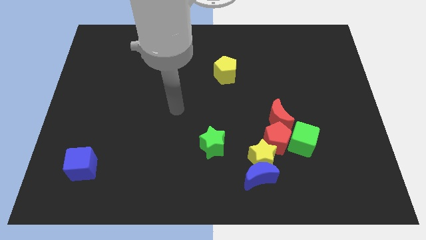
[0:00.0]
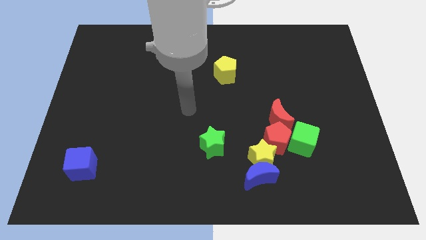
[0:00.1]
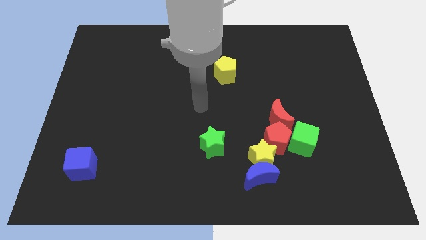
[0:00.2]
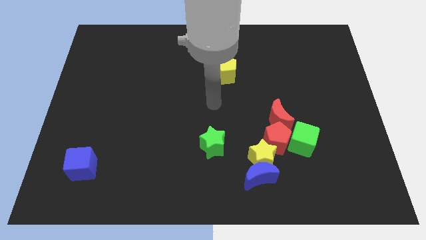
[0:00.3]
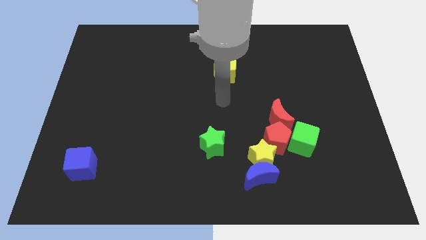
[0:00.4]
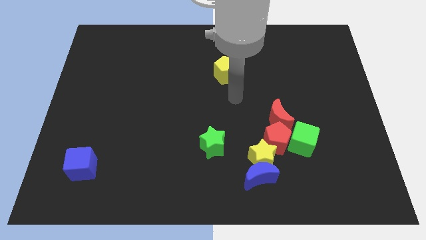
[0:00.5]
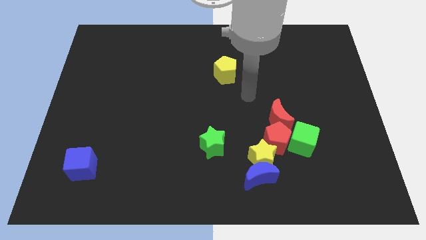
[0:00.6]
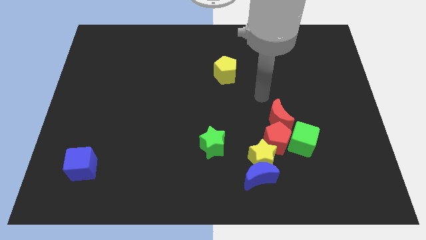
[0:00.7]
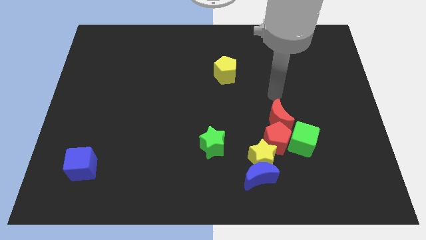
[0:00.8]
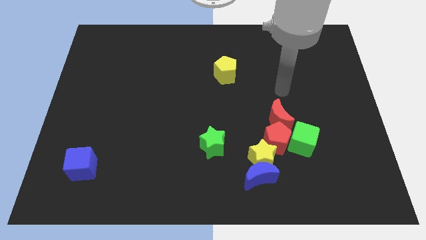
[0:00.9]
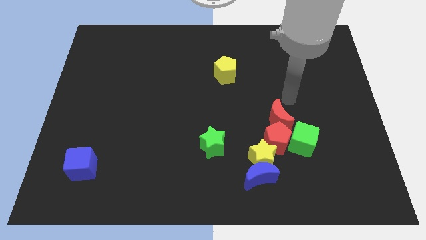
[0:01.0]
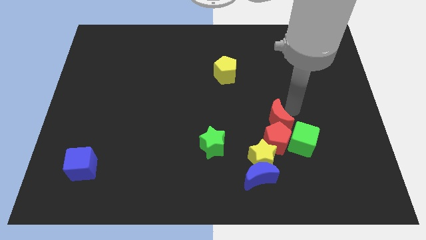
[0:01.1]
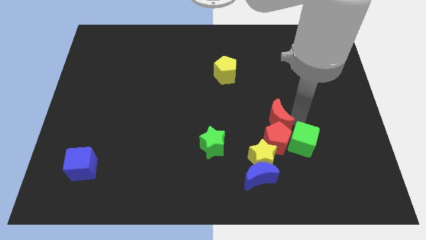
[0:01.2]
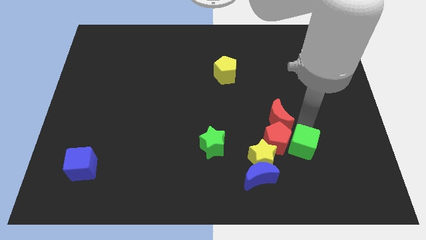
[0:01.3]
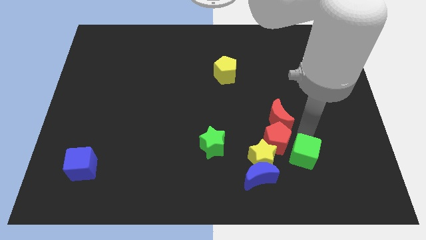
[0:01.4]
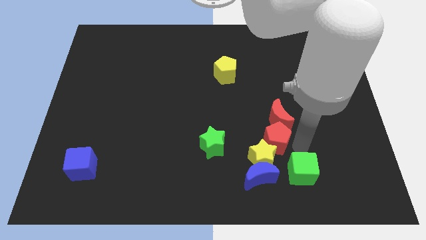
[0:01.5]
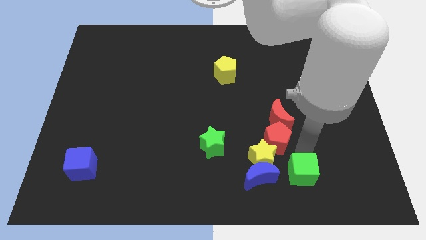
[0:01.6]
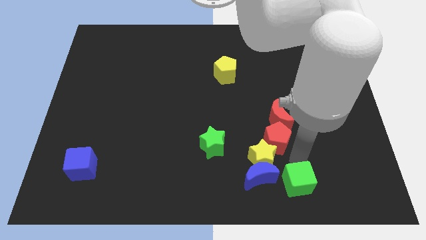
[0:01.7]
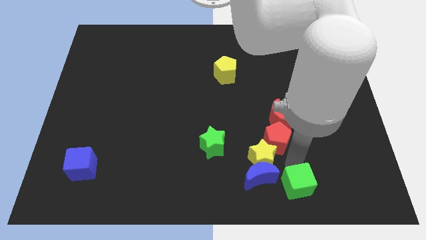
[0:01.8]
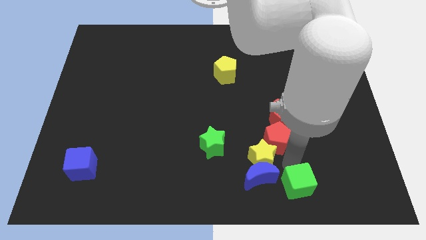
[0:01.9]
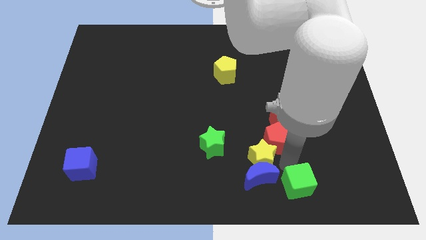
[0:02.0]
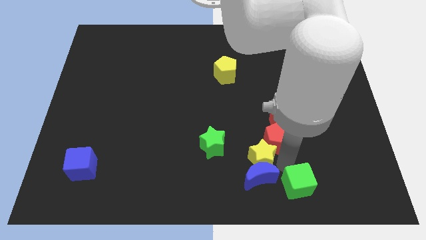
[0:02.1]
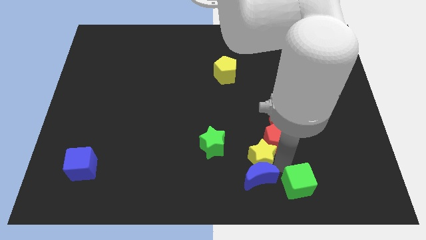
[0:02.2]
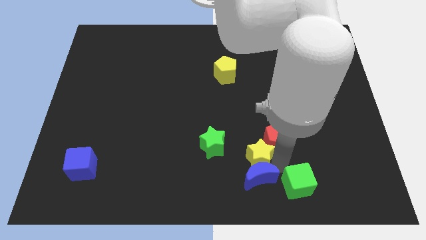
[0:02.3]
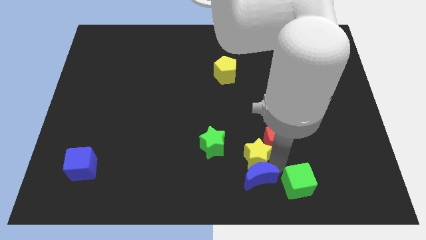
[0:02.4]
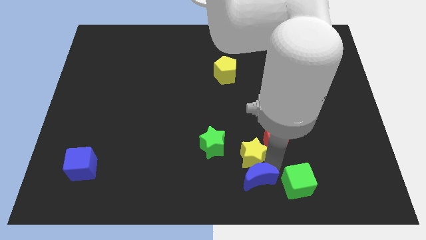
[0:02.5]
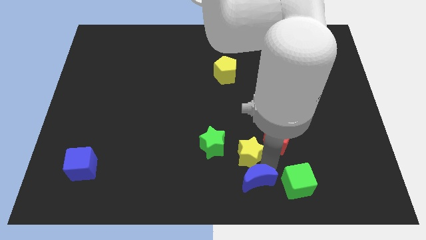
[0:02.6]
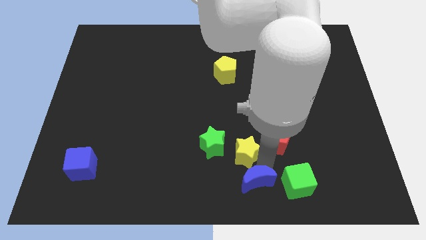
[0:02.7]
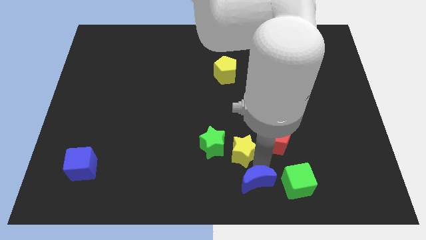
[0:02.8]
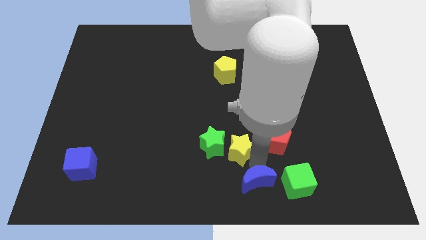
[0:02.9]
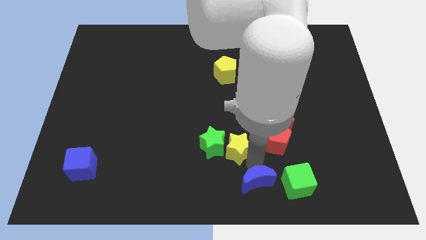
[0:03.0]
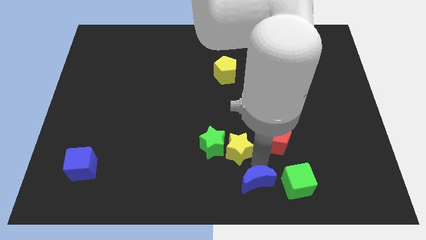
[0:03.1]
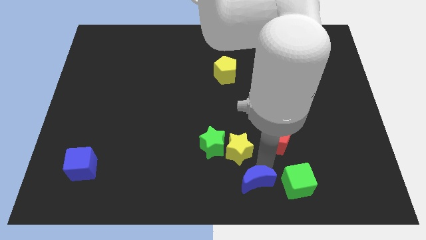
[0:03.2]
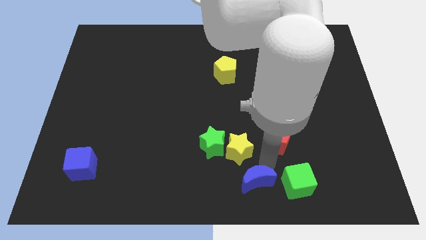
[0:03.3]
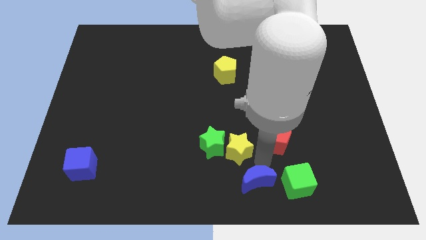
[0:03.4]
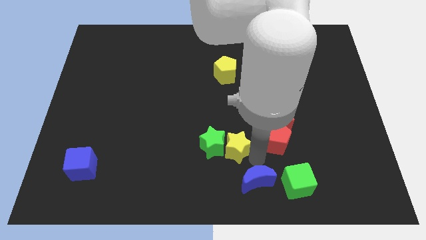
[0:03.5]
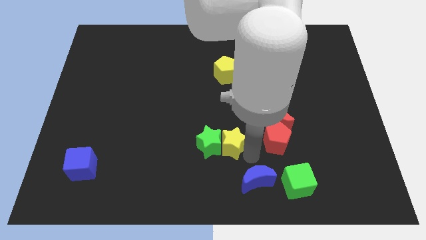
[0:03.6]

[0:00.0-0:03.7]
move the yellow star away from the group of blocks

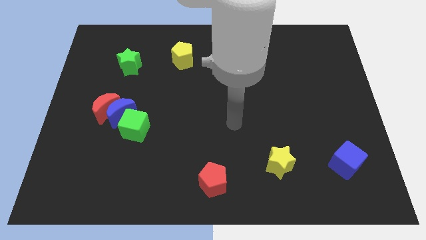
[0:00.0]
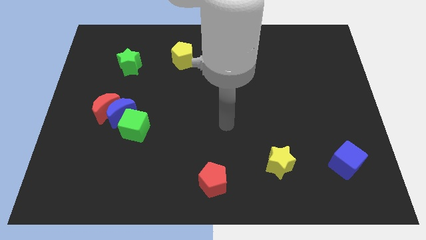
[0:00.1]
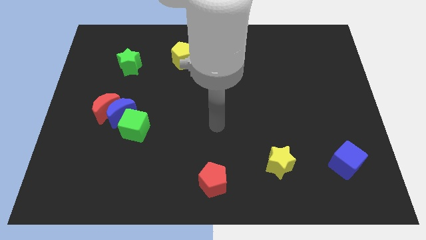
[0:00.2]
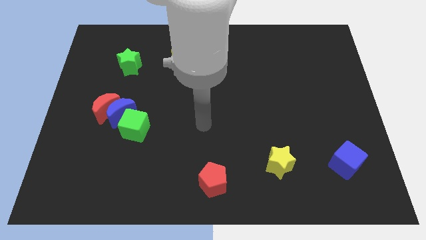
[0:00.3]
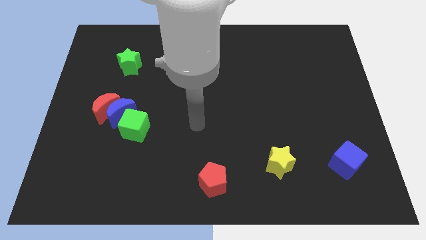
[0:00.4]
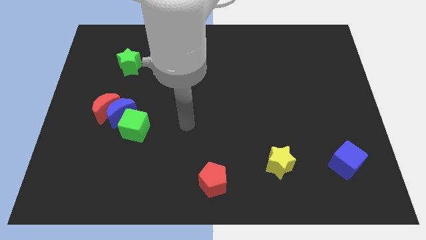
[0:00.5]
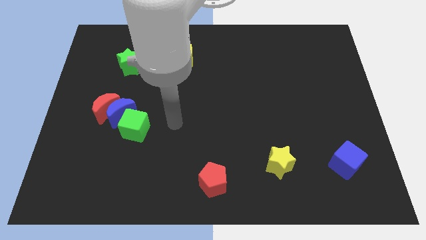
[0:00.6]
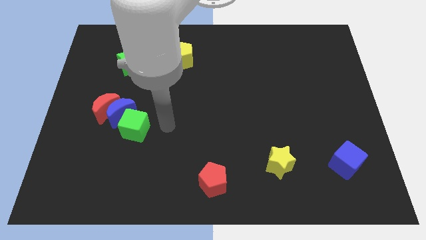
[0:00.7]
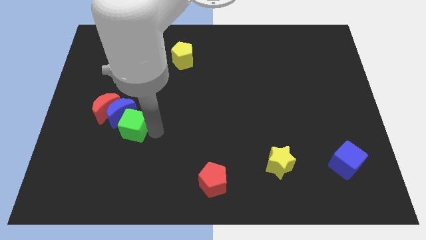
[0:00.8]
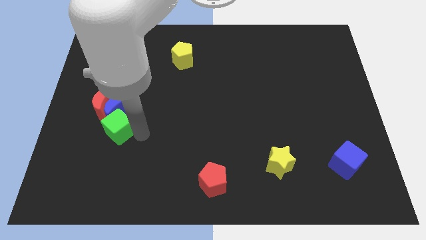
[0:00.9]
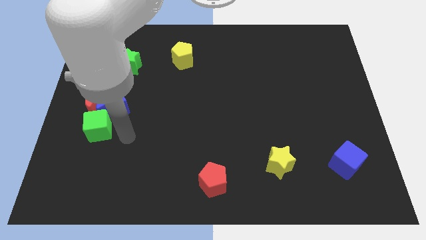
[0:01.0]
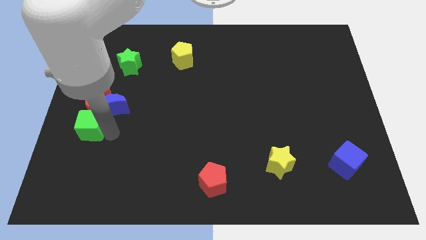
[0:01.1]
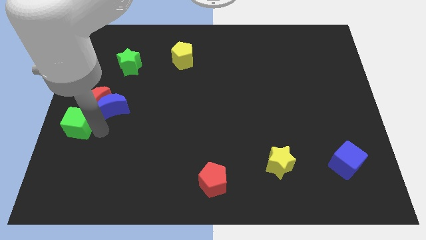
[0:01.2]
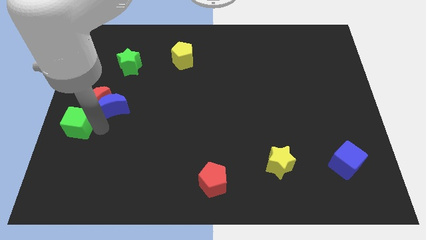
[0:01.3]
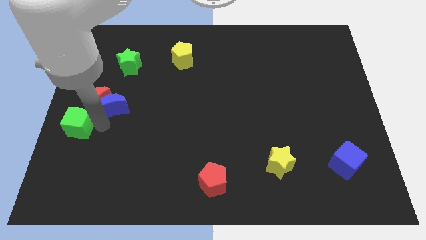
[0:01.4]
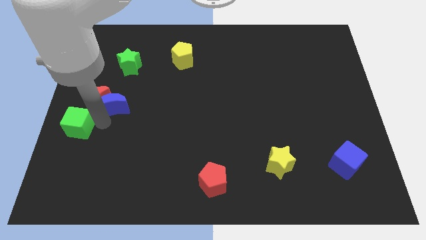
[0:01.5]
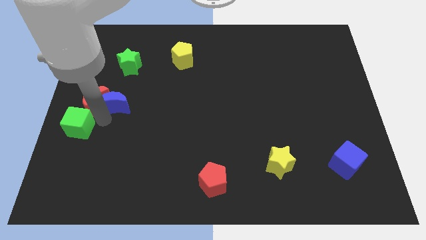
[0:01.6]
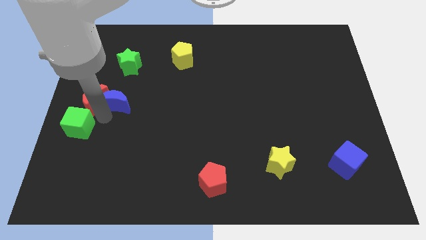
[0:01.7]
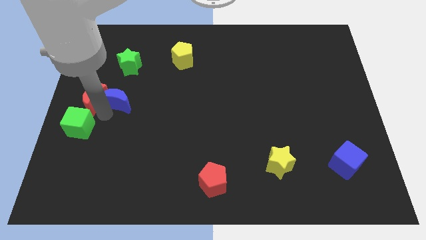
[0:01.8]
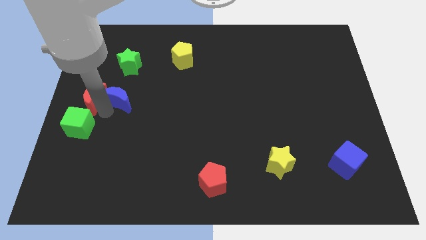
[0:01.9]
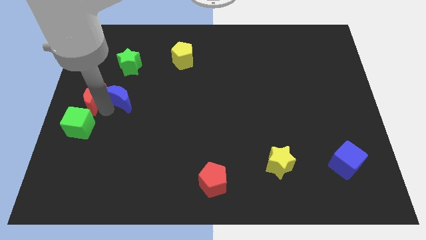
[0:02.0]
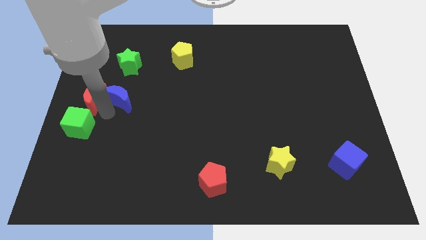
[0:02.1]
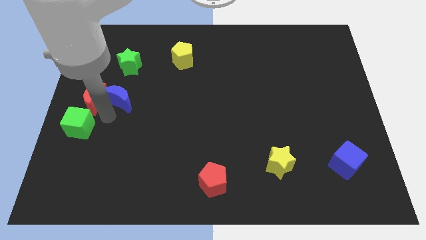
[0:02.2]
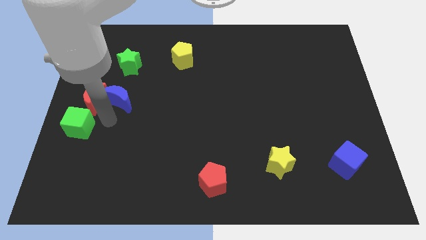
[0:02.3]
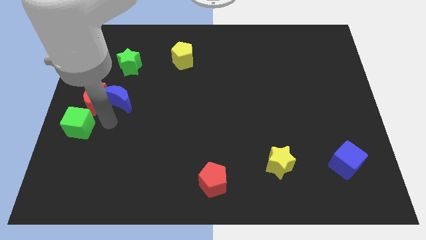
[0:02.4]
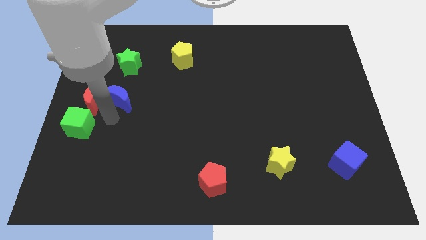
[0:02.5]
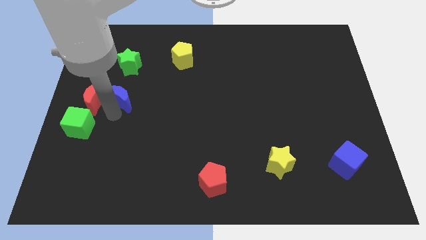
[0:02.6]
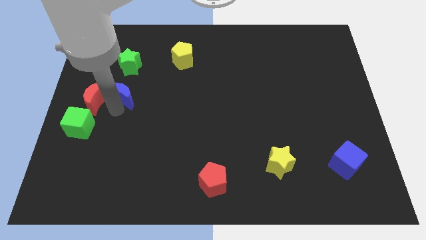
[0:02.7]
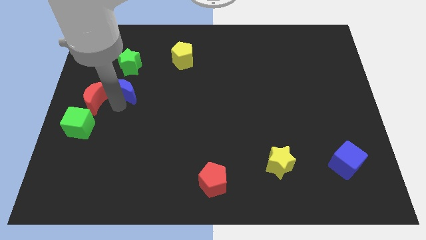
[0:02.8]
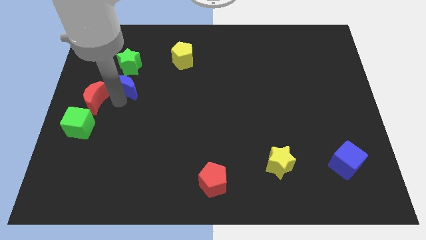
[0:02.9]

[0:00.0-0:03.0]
move the blue moon away from the red moon and green cube

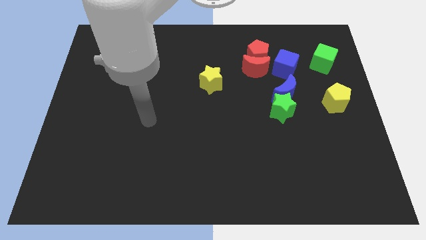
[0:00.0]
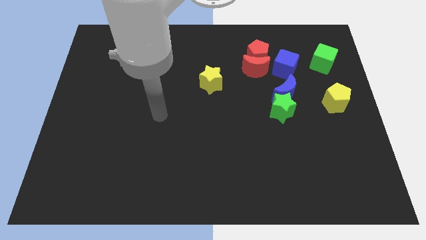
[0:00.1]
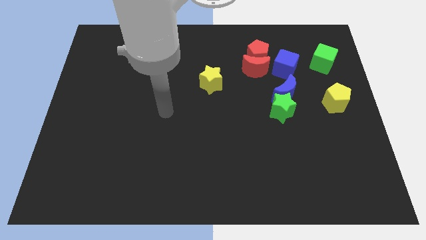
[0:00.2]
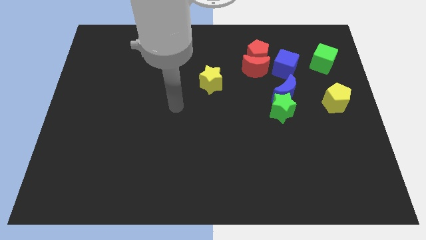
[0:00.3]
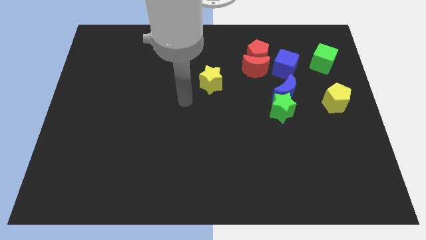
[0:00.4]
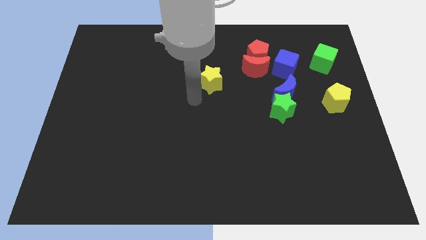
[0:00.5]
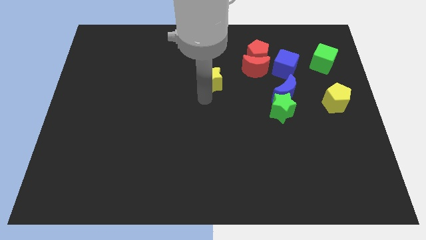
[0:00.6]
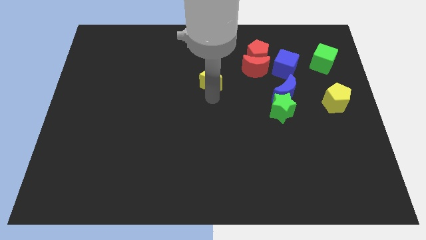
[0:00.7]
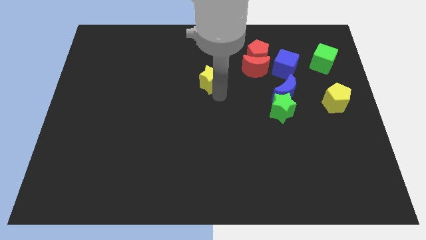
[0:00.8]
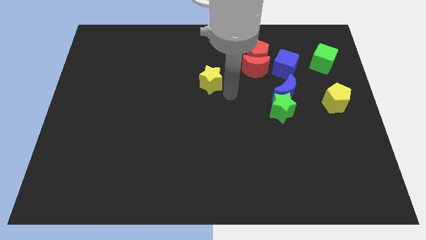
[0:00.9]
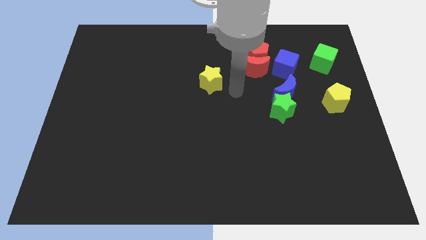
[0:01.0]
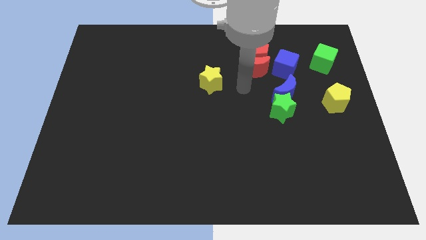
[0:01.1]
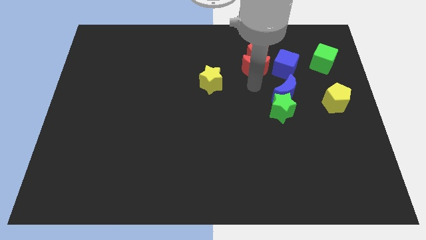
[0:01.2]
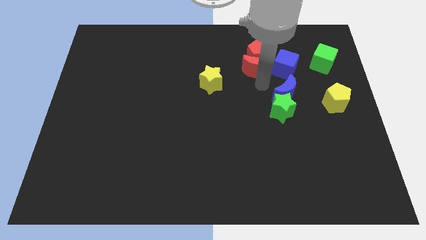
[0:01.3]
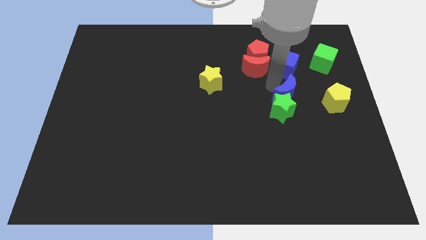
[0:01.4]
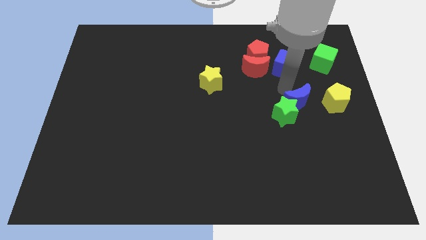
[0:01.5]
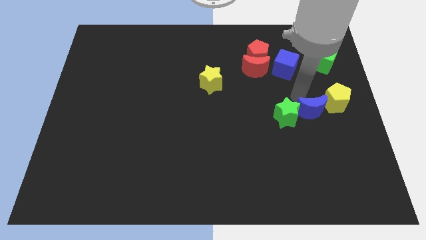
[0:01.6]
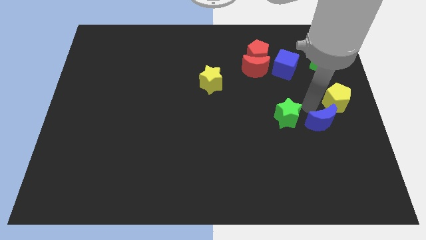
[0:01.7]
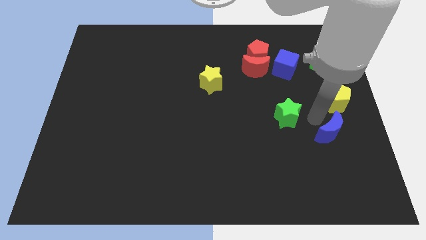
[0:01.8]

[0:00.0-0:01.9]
pull the green star apart from the blue moon

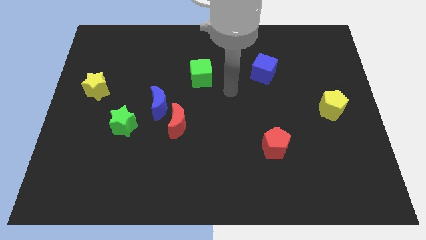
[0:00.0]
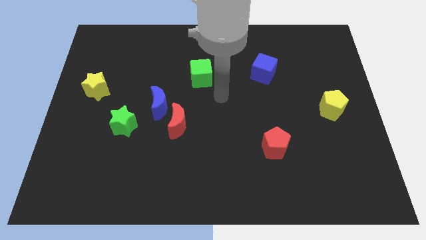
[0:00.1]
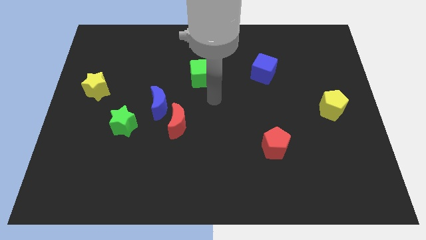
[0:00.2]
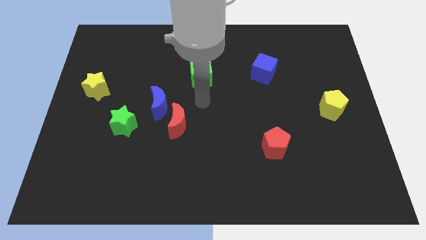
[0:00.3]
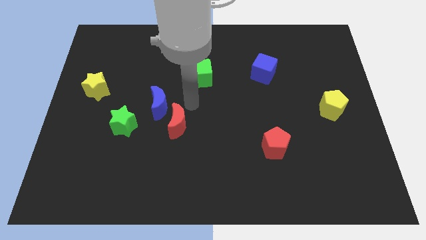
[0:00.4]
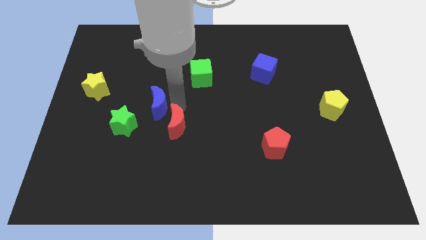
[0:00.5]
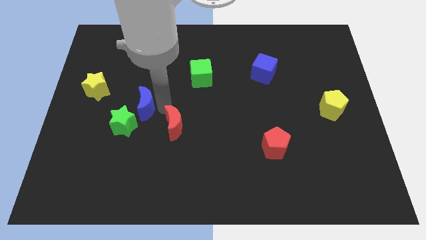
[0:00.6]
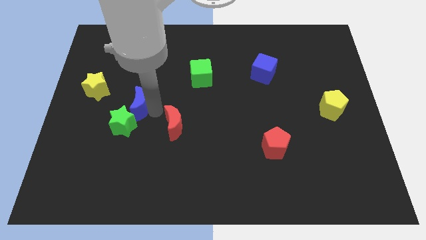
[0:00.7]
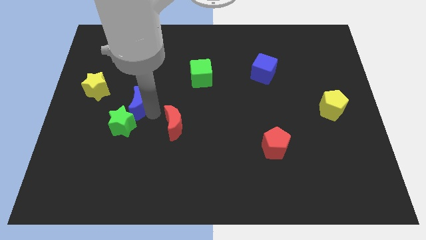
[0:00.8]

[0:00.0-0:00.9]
separate the red moon from the blue moon
